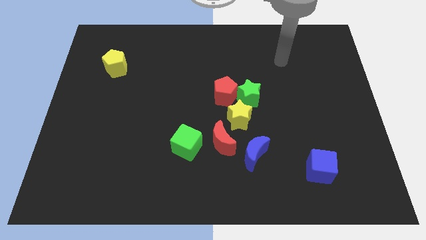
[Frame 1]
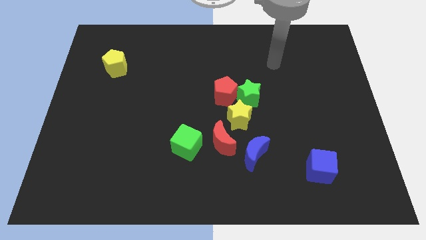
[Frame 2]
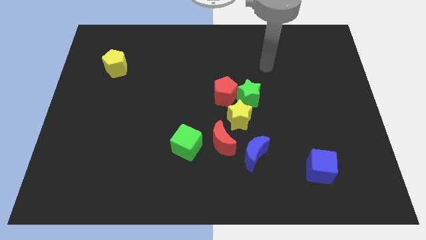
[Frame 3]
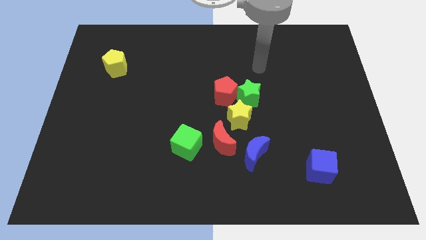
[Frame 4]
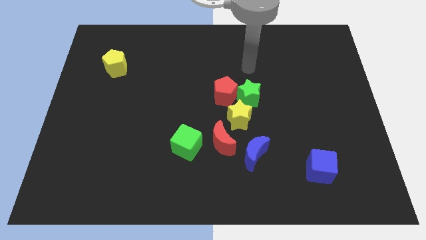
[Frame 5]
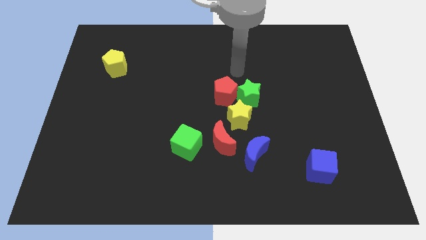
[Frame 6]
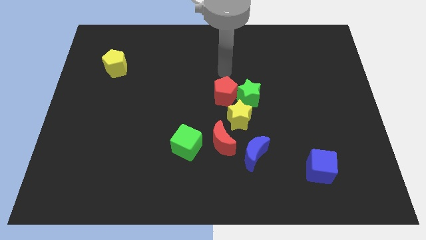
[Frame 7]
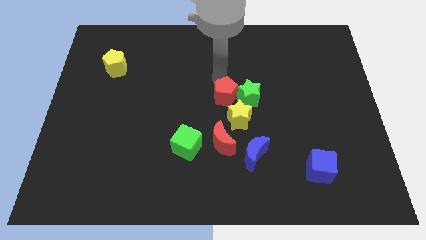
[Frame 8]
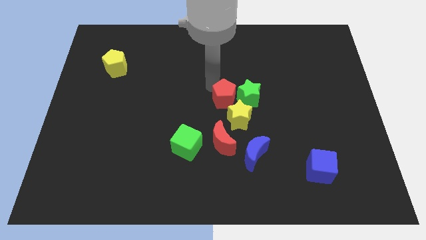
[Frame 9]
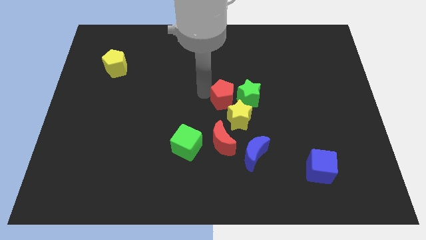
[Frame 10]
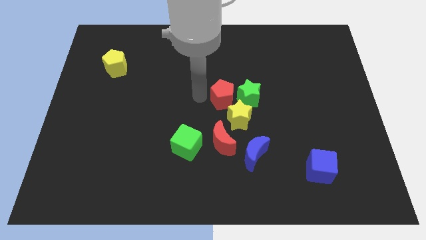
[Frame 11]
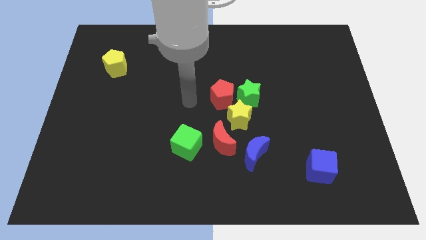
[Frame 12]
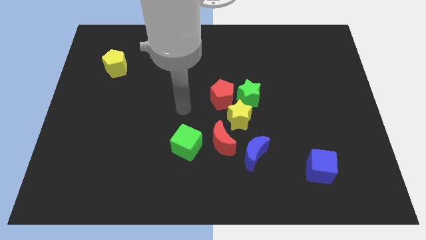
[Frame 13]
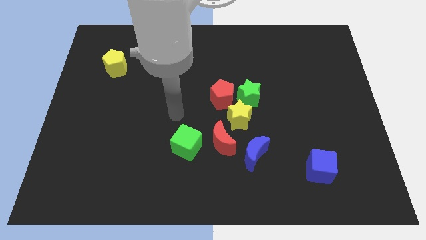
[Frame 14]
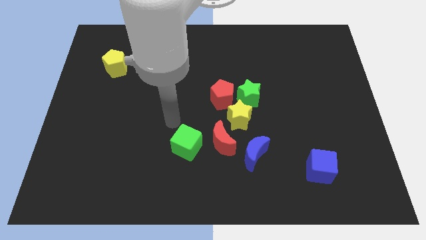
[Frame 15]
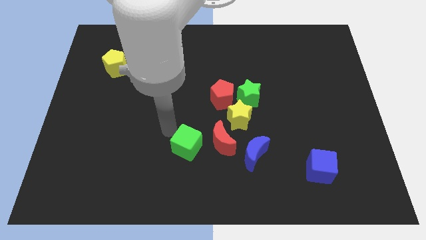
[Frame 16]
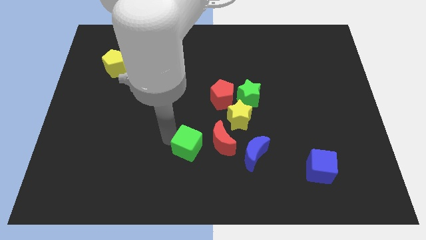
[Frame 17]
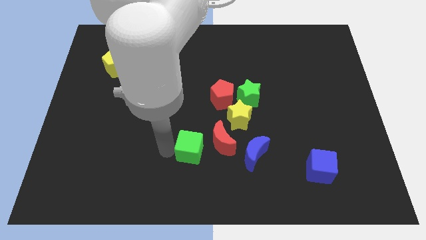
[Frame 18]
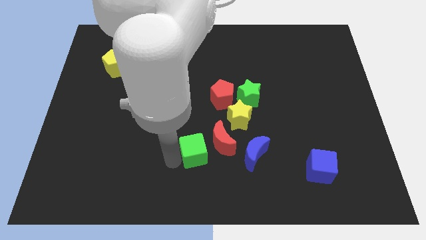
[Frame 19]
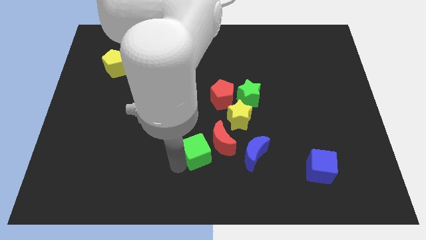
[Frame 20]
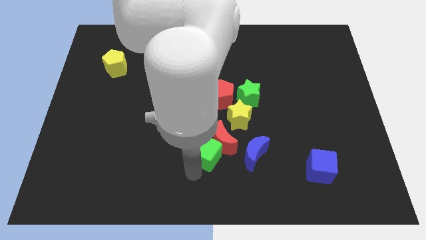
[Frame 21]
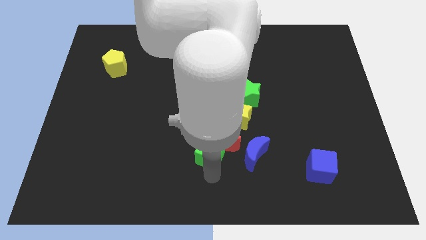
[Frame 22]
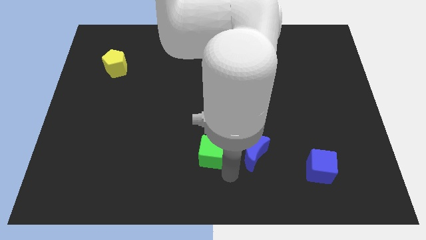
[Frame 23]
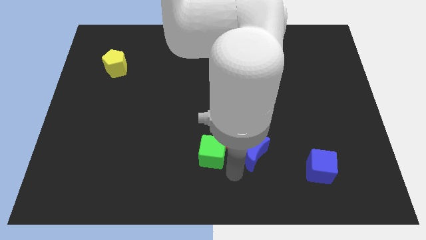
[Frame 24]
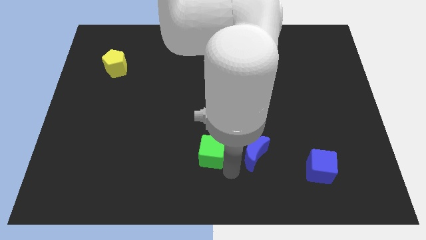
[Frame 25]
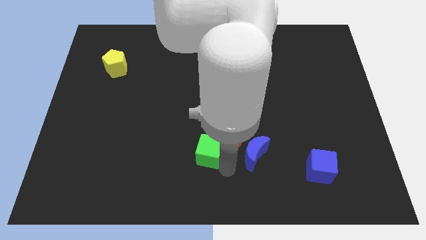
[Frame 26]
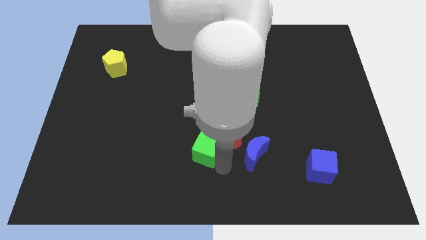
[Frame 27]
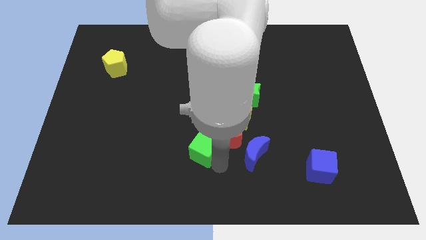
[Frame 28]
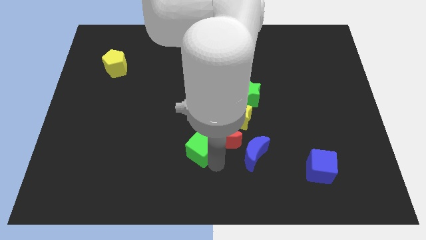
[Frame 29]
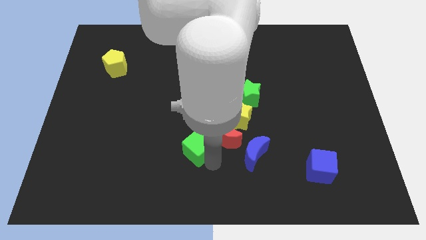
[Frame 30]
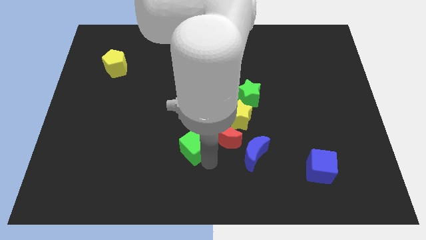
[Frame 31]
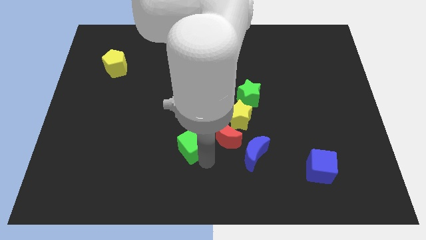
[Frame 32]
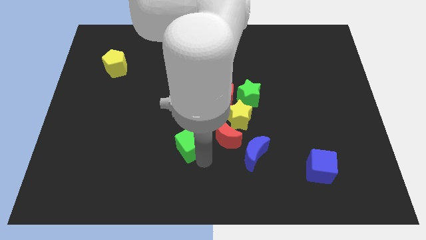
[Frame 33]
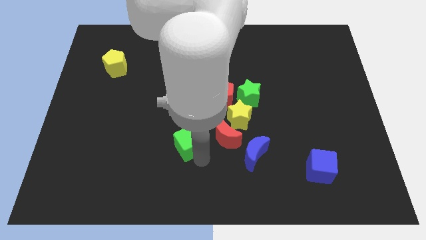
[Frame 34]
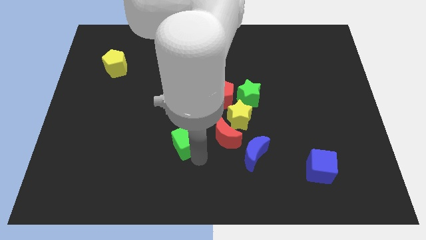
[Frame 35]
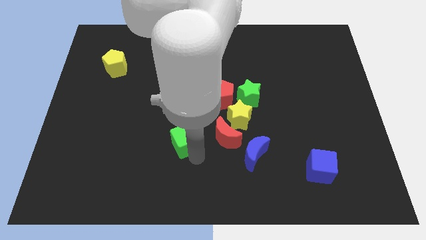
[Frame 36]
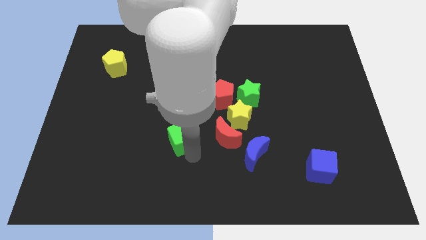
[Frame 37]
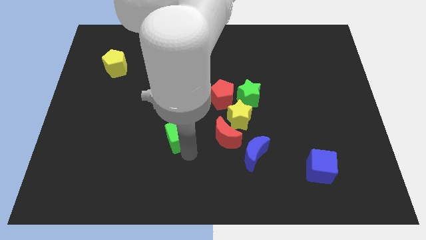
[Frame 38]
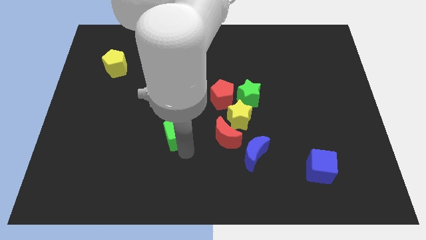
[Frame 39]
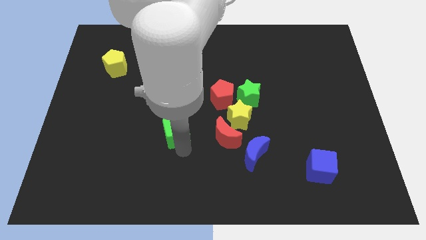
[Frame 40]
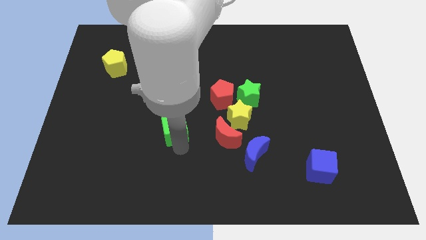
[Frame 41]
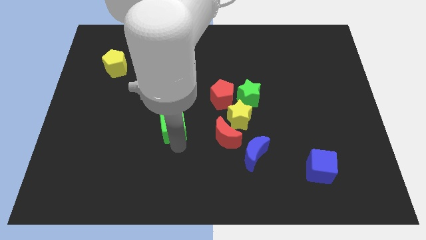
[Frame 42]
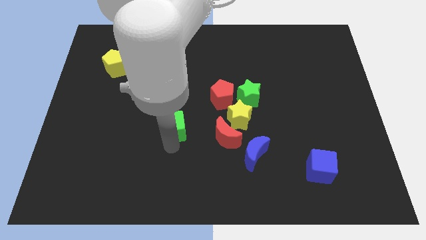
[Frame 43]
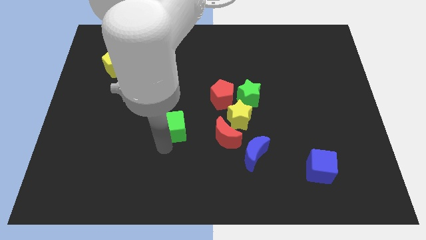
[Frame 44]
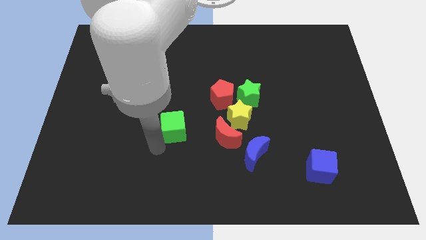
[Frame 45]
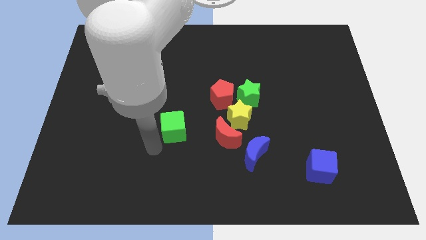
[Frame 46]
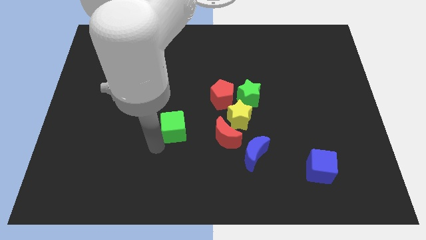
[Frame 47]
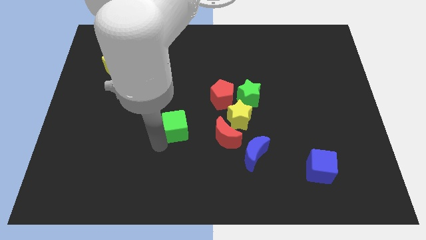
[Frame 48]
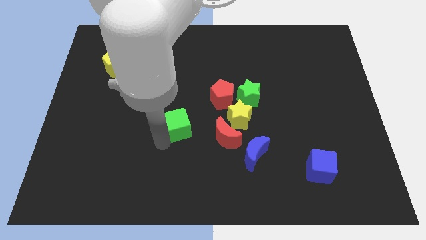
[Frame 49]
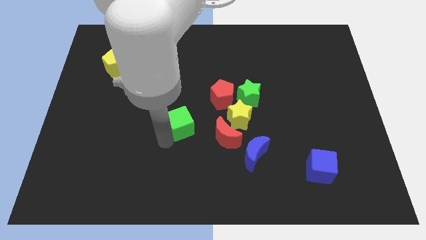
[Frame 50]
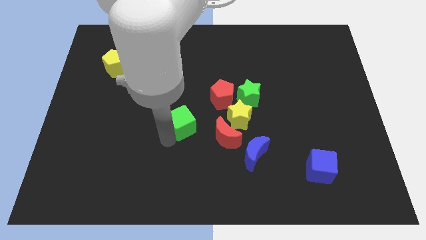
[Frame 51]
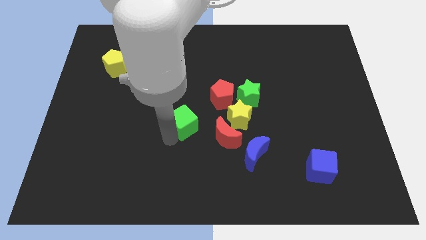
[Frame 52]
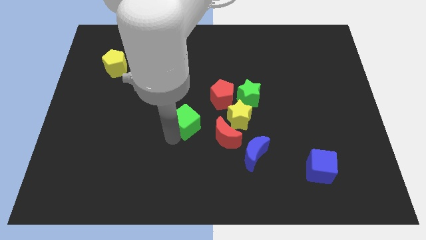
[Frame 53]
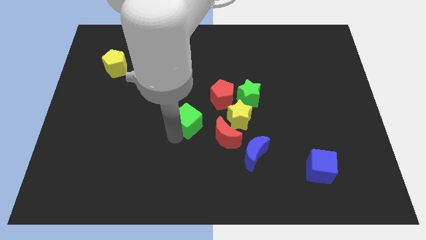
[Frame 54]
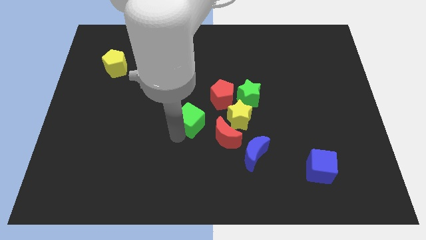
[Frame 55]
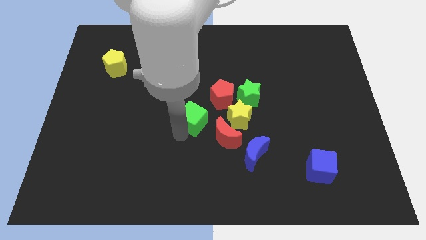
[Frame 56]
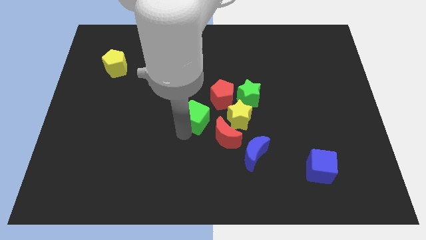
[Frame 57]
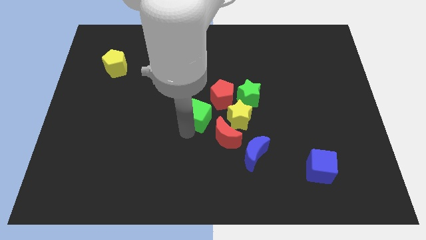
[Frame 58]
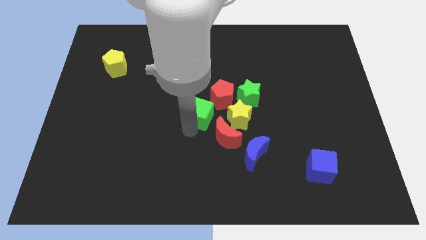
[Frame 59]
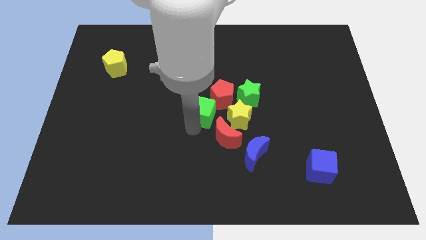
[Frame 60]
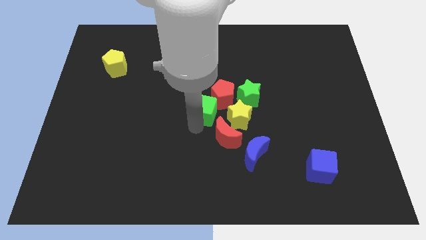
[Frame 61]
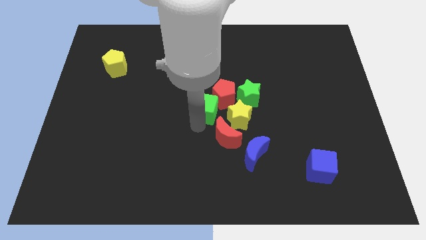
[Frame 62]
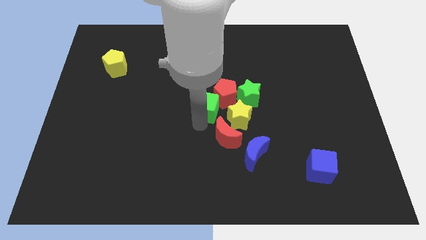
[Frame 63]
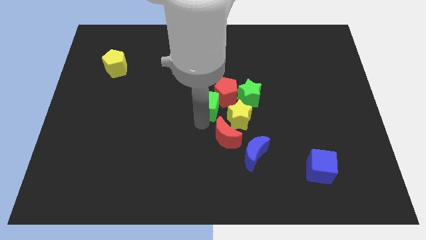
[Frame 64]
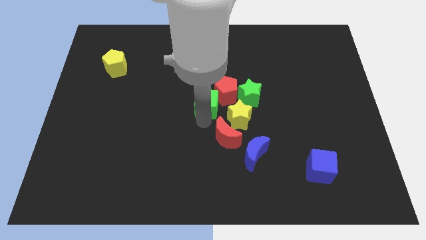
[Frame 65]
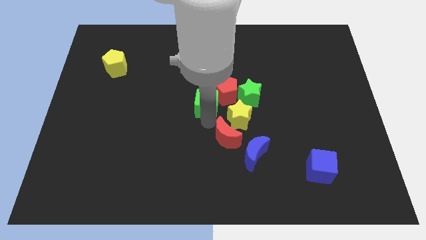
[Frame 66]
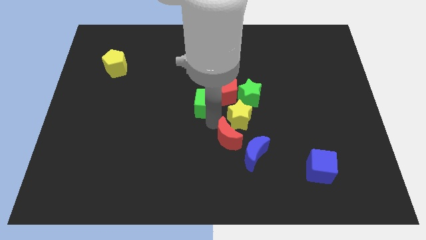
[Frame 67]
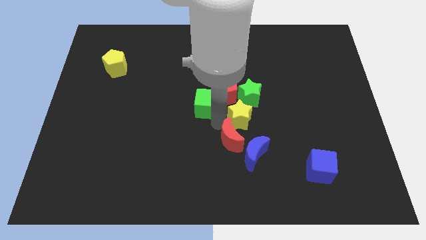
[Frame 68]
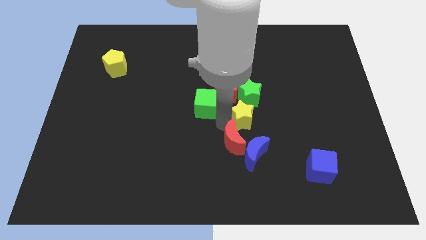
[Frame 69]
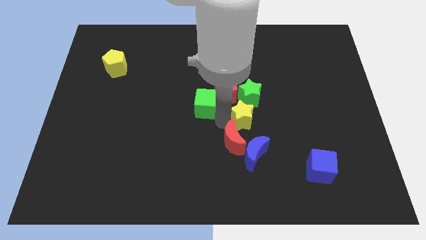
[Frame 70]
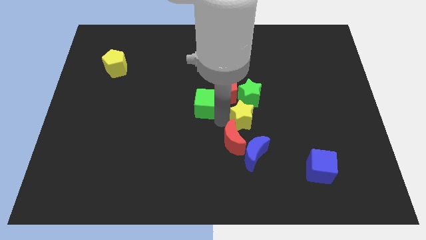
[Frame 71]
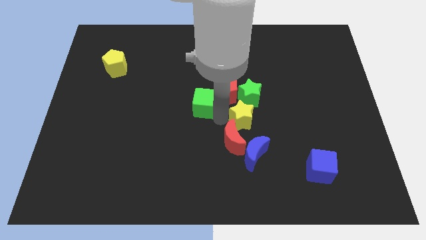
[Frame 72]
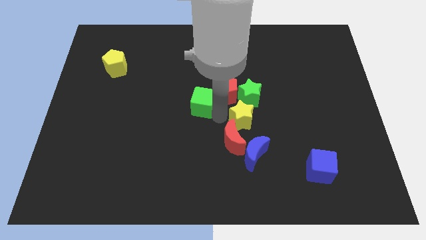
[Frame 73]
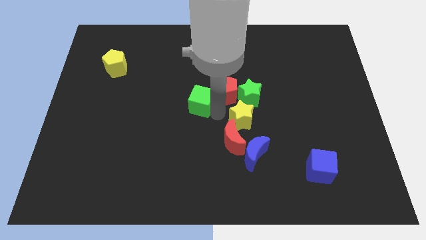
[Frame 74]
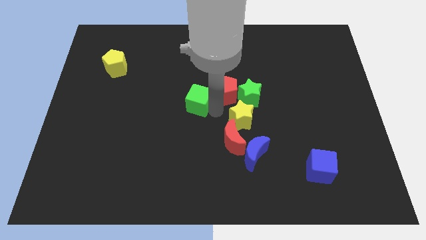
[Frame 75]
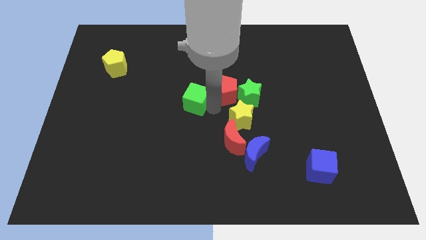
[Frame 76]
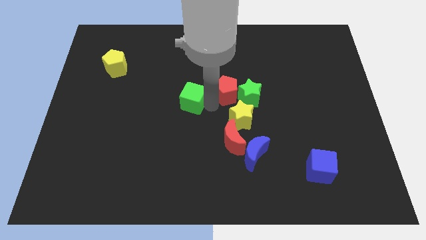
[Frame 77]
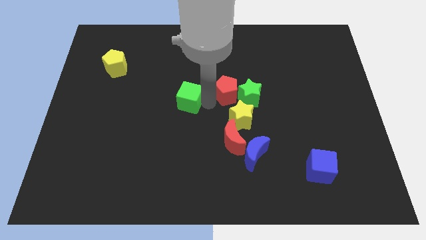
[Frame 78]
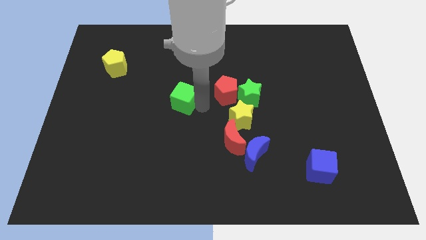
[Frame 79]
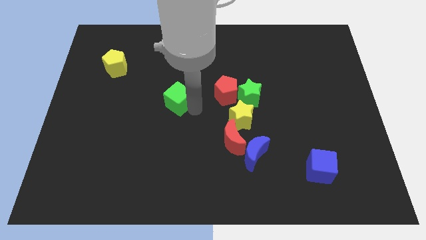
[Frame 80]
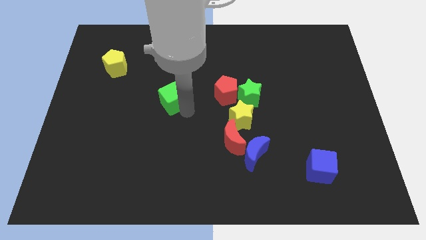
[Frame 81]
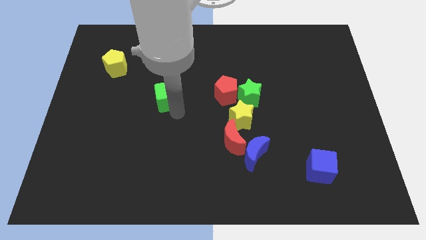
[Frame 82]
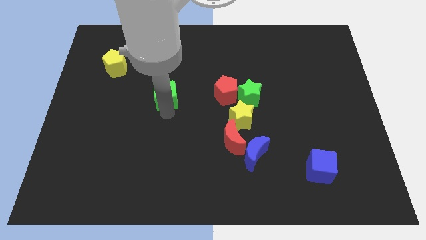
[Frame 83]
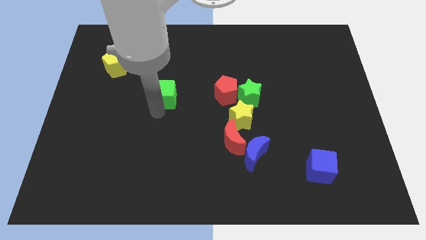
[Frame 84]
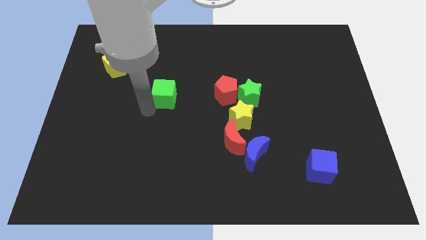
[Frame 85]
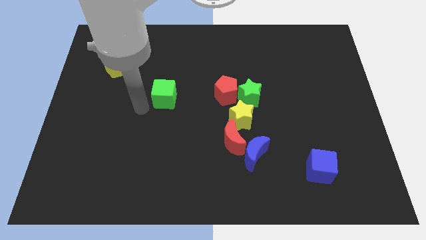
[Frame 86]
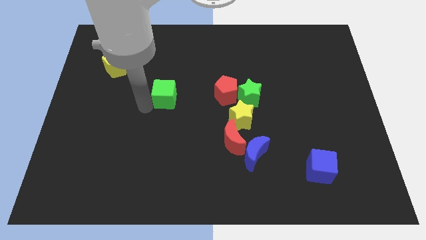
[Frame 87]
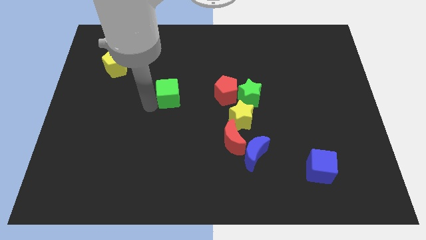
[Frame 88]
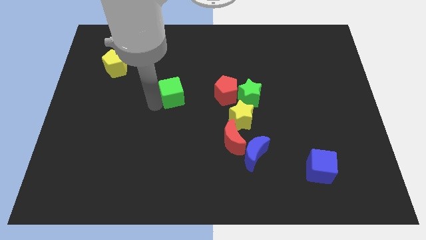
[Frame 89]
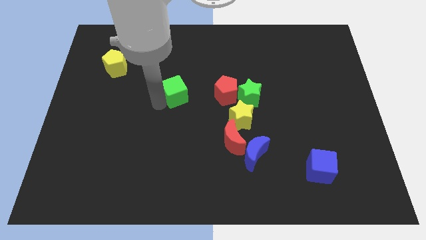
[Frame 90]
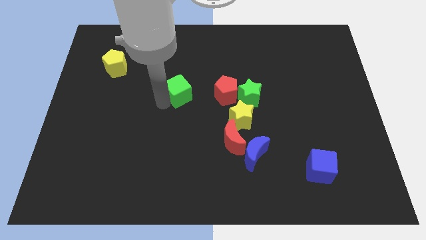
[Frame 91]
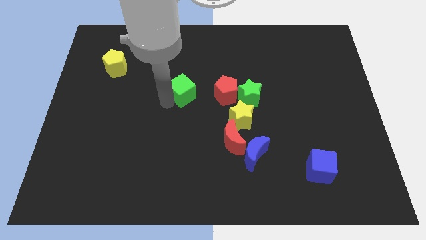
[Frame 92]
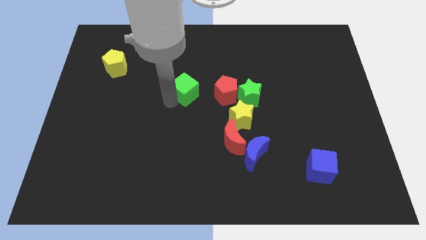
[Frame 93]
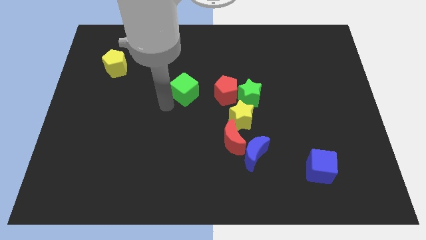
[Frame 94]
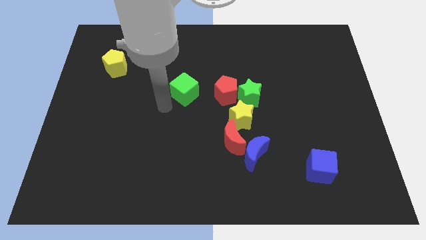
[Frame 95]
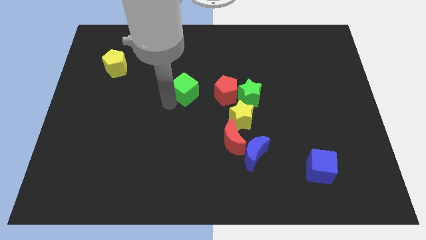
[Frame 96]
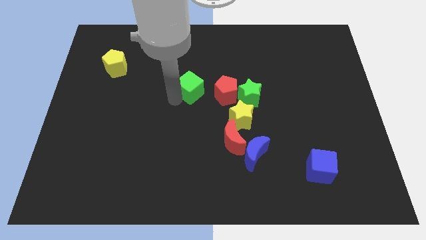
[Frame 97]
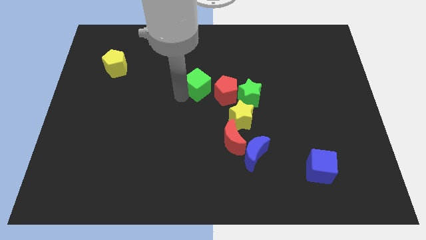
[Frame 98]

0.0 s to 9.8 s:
put the green cube to the top left of the red pentagon
